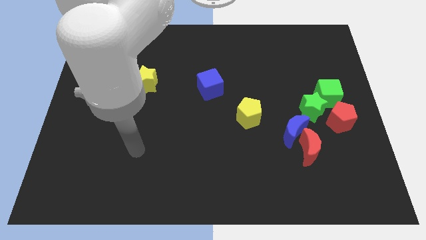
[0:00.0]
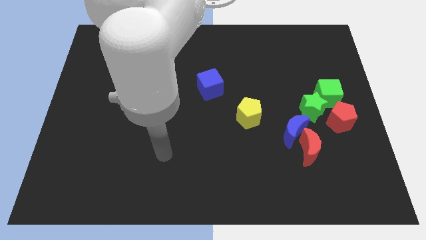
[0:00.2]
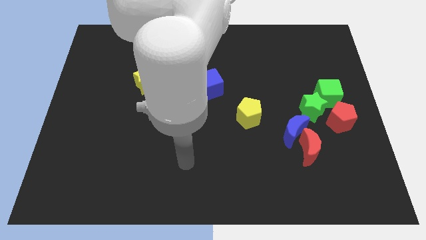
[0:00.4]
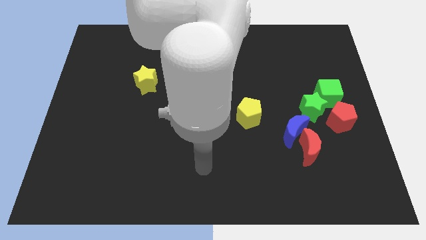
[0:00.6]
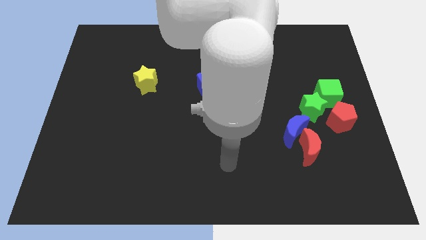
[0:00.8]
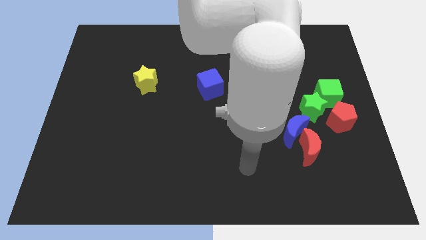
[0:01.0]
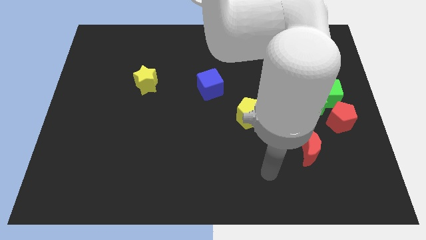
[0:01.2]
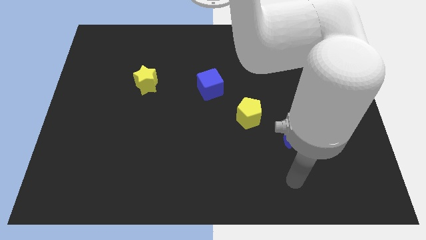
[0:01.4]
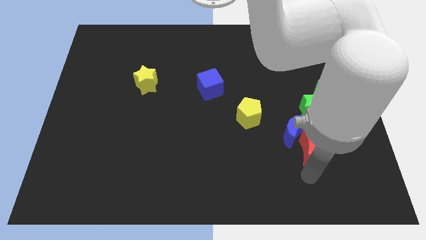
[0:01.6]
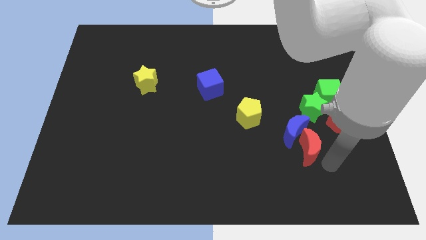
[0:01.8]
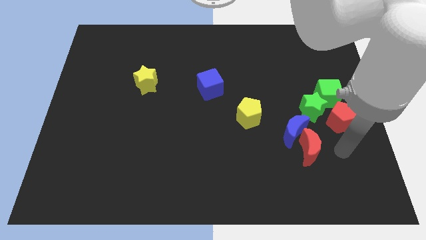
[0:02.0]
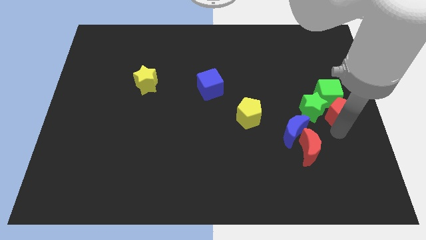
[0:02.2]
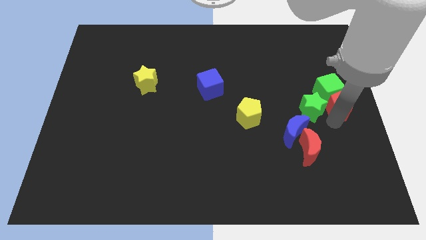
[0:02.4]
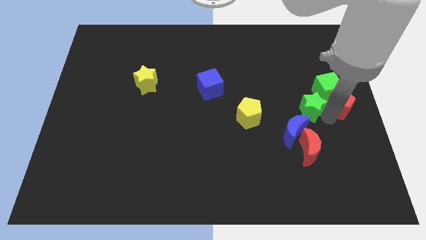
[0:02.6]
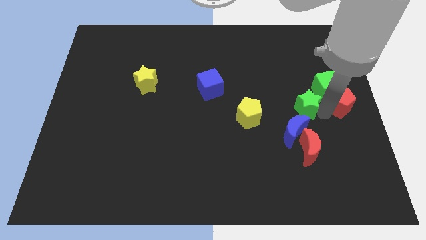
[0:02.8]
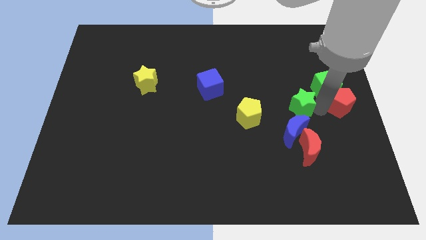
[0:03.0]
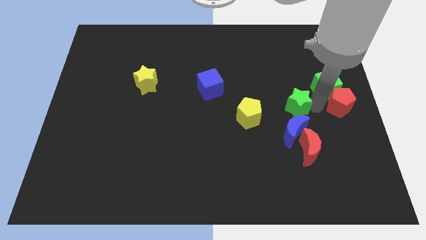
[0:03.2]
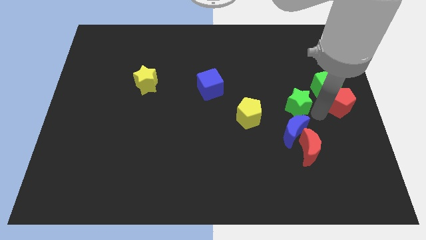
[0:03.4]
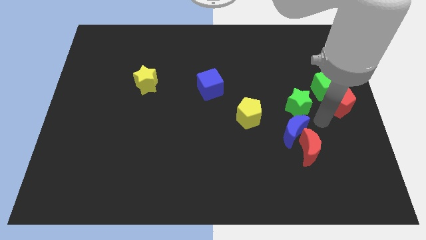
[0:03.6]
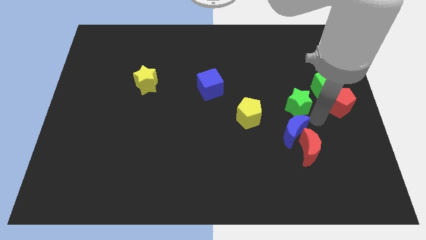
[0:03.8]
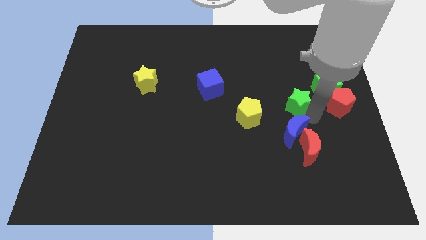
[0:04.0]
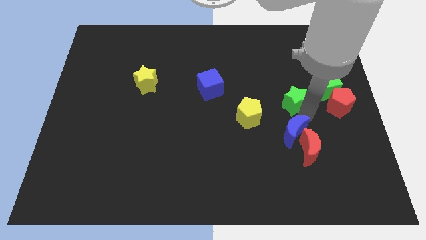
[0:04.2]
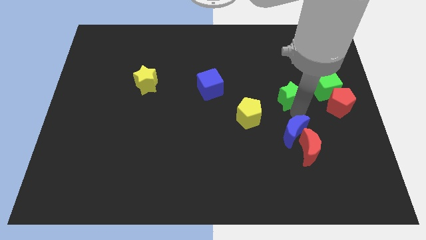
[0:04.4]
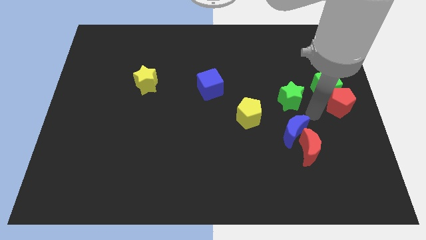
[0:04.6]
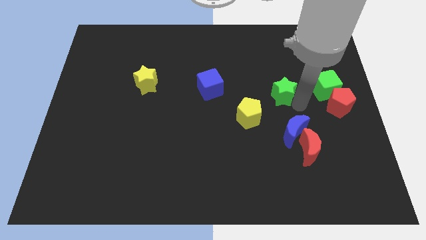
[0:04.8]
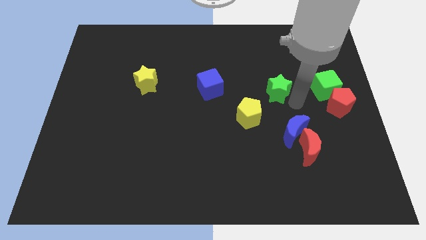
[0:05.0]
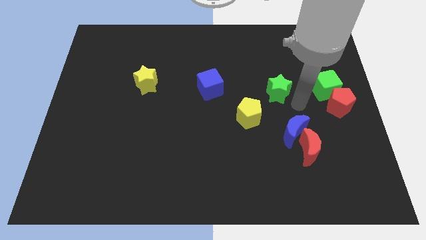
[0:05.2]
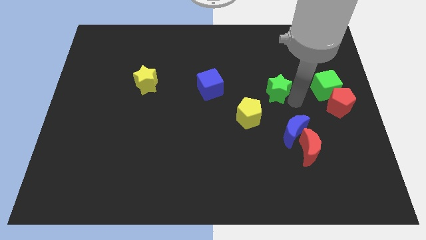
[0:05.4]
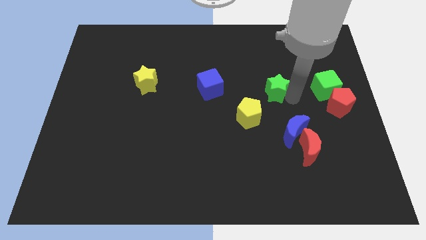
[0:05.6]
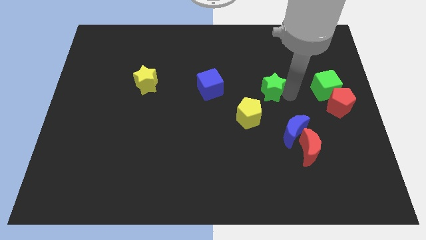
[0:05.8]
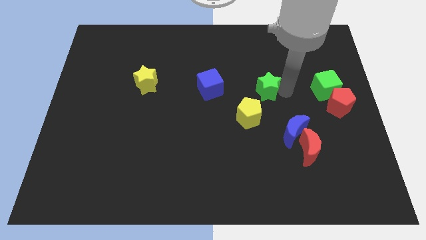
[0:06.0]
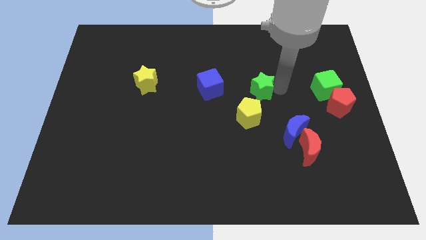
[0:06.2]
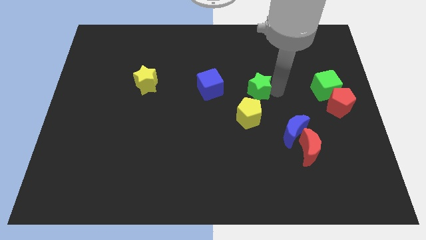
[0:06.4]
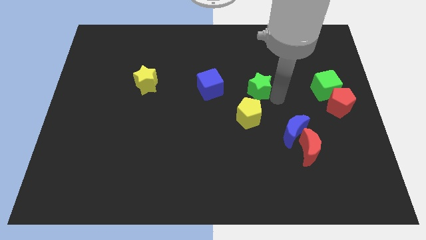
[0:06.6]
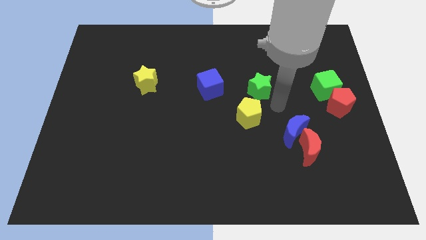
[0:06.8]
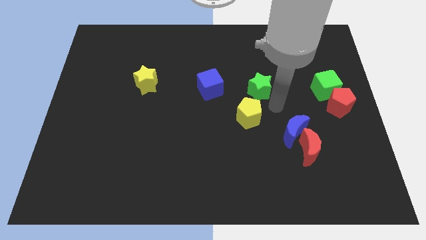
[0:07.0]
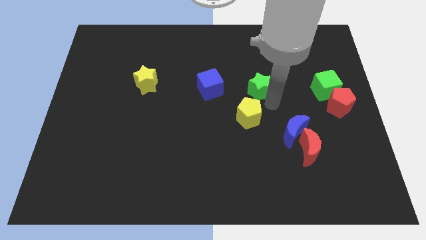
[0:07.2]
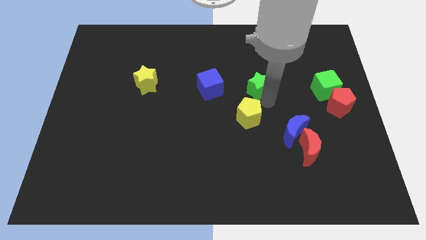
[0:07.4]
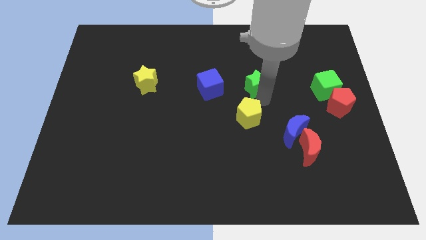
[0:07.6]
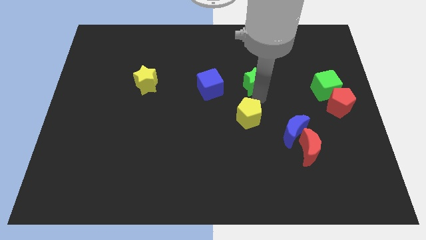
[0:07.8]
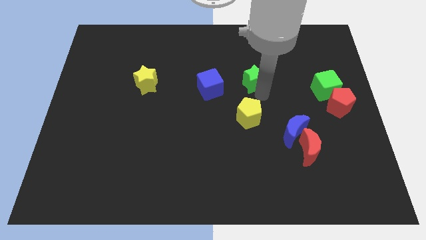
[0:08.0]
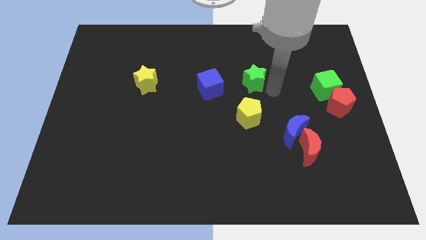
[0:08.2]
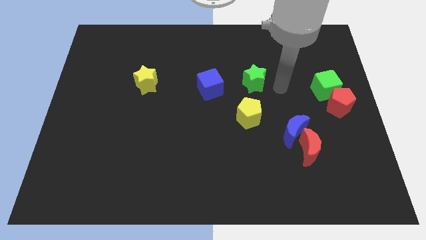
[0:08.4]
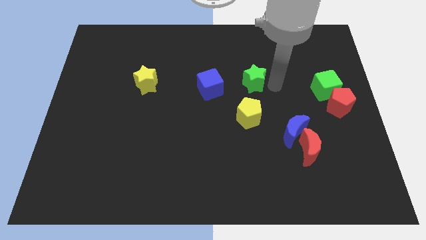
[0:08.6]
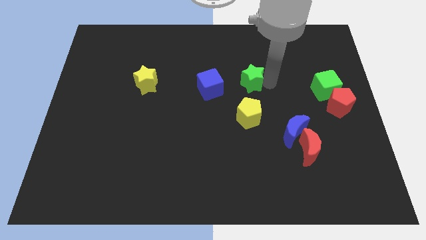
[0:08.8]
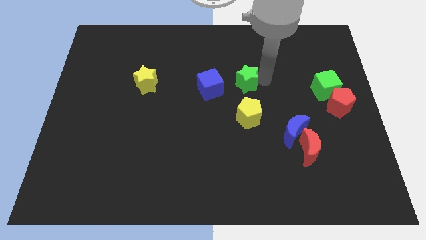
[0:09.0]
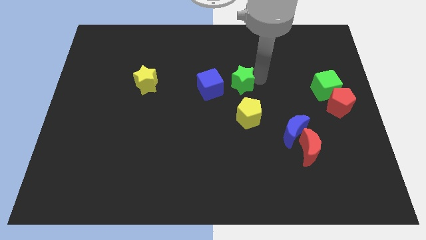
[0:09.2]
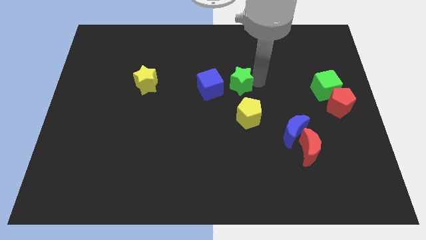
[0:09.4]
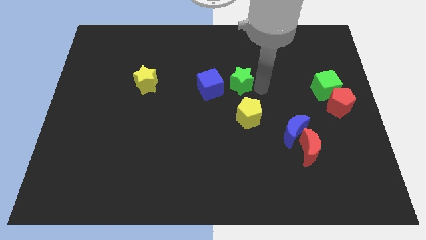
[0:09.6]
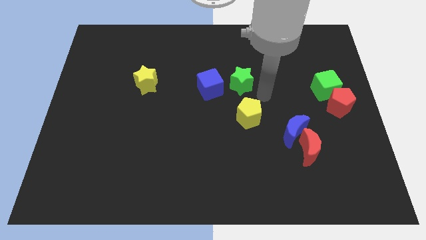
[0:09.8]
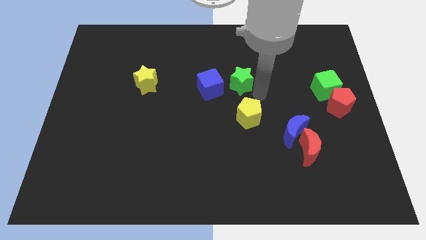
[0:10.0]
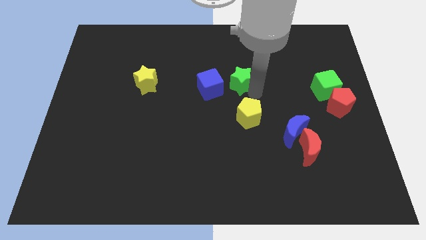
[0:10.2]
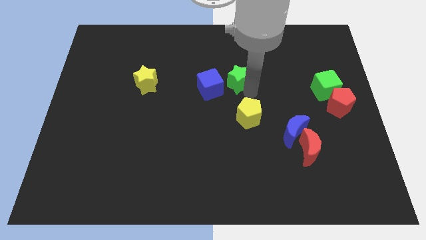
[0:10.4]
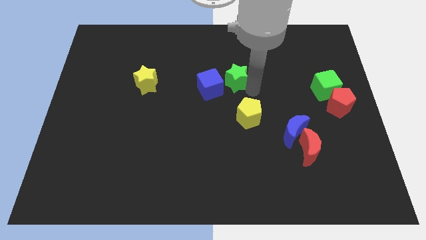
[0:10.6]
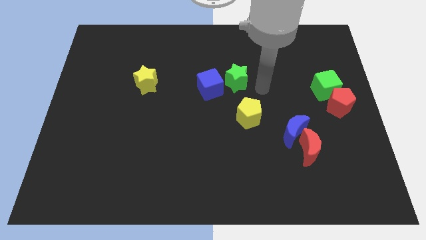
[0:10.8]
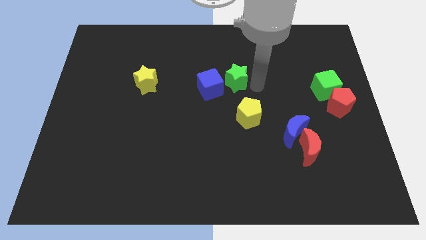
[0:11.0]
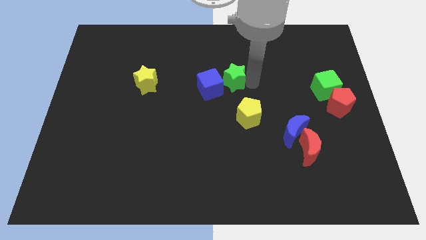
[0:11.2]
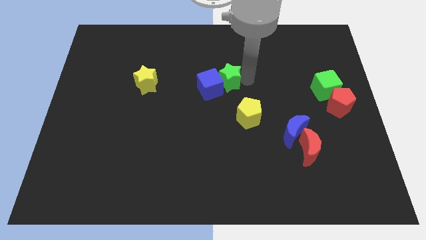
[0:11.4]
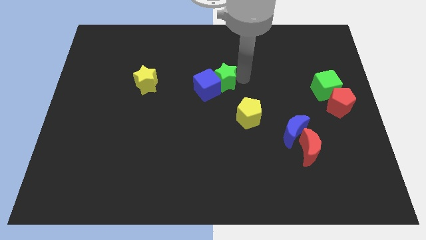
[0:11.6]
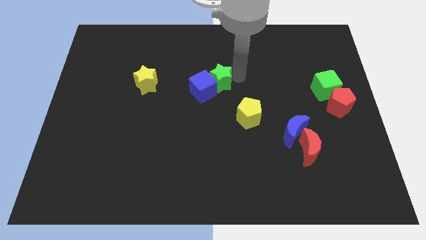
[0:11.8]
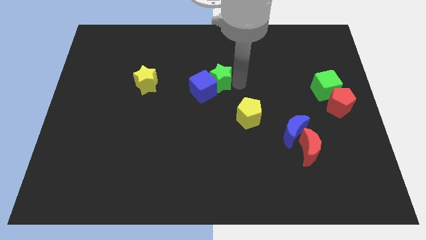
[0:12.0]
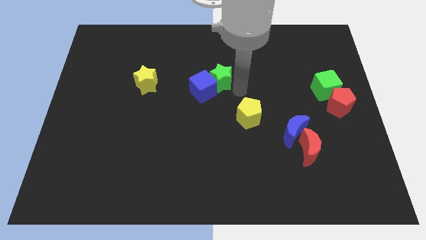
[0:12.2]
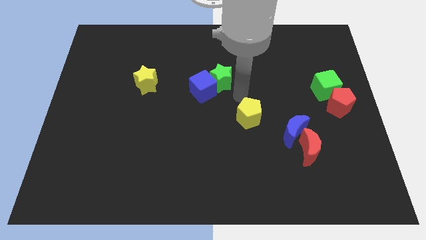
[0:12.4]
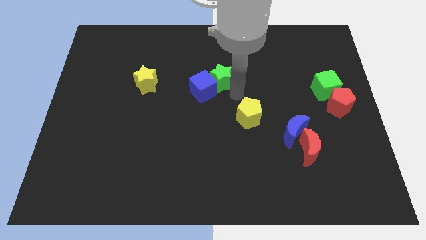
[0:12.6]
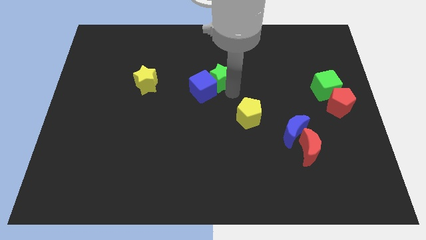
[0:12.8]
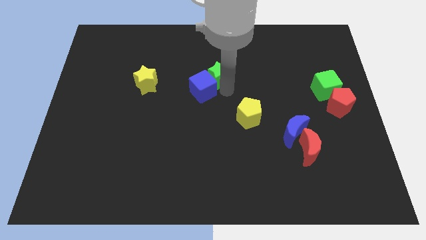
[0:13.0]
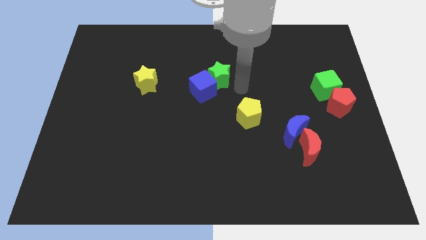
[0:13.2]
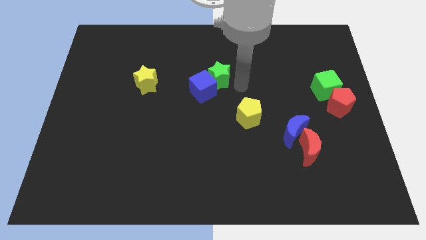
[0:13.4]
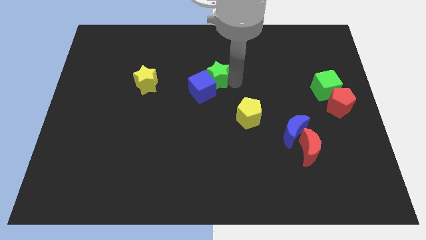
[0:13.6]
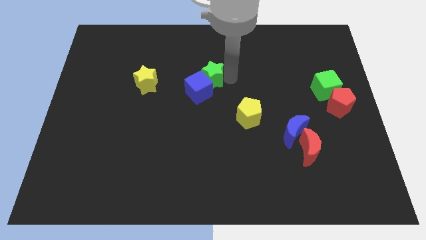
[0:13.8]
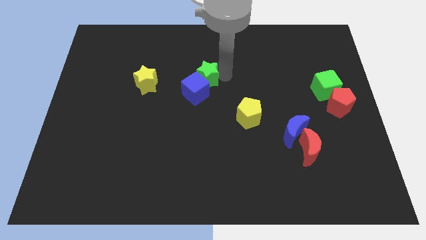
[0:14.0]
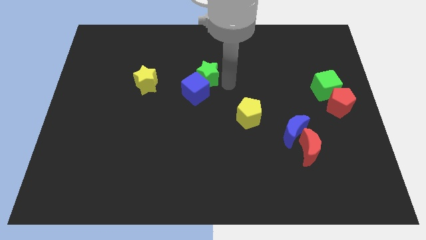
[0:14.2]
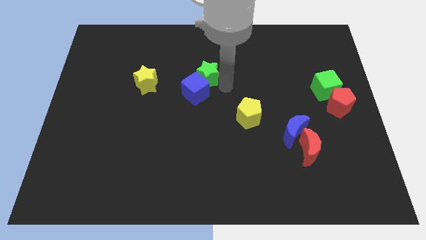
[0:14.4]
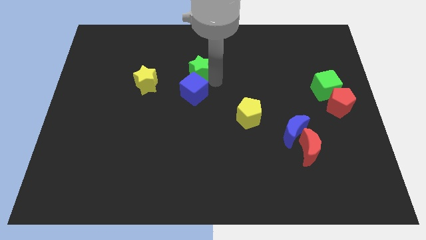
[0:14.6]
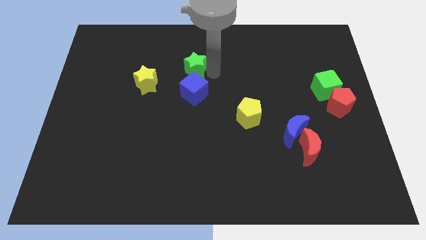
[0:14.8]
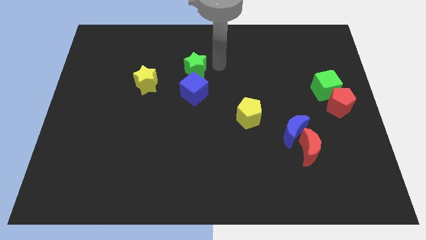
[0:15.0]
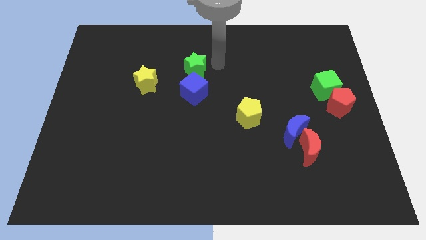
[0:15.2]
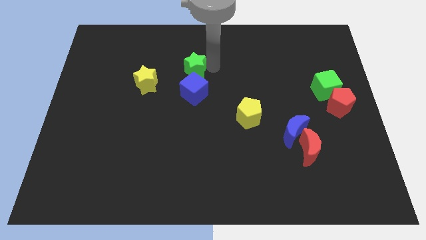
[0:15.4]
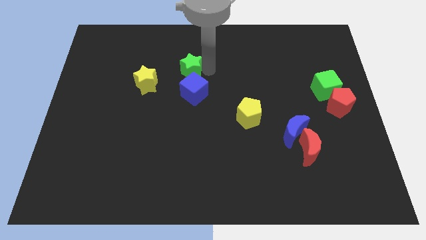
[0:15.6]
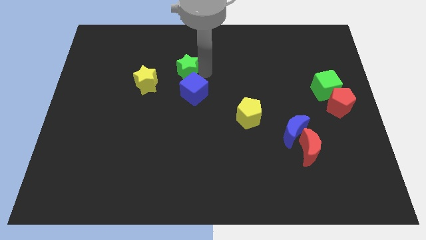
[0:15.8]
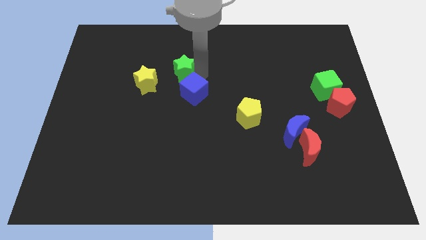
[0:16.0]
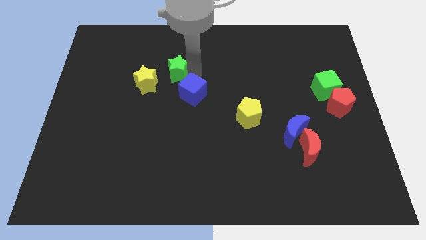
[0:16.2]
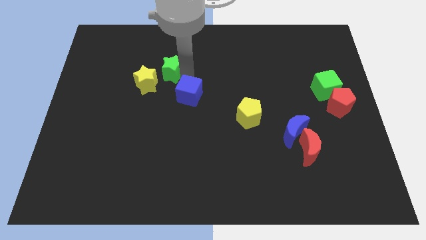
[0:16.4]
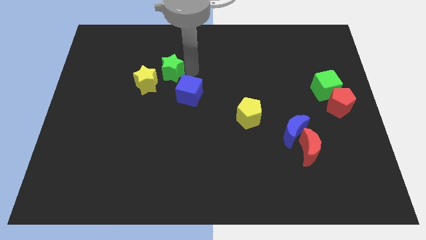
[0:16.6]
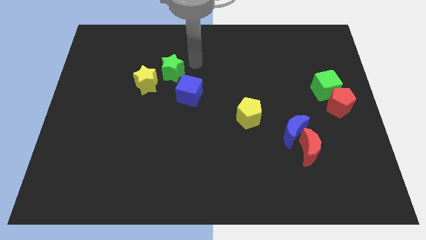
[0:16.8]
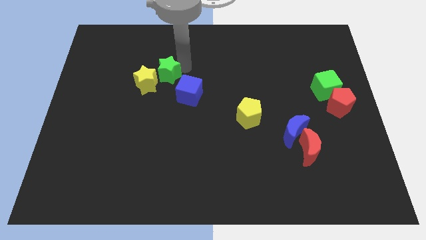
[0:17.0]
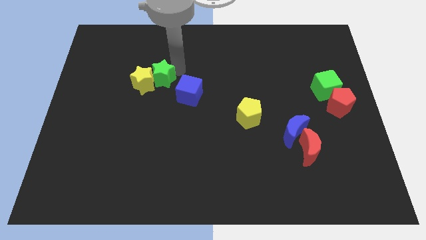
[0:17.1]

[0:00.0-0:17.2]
put the green star close to the yellow star
